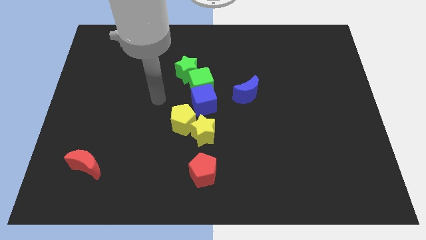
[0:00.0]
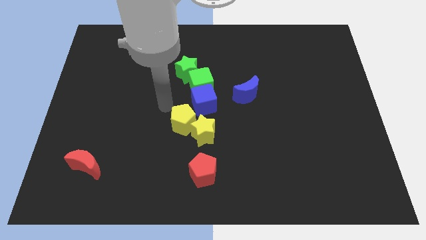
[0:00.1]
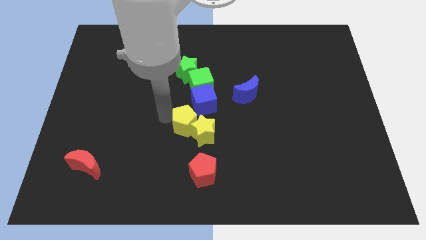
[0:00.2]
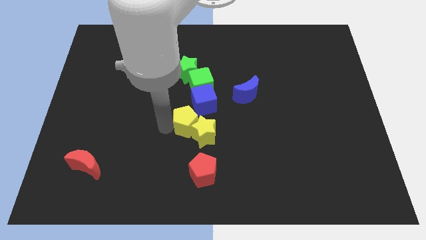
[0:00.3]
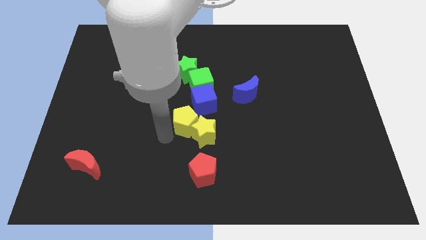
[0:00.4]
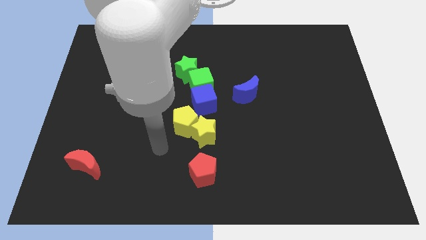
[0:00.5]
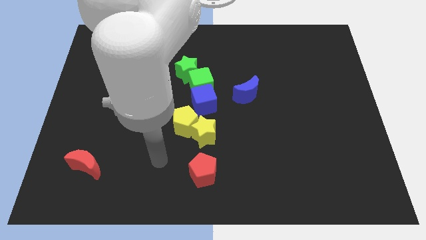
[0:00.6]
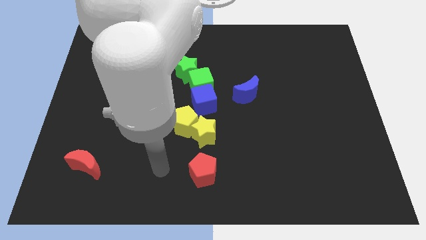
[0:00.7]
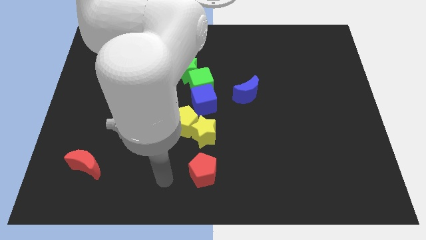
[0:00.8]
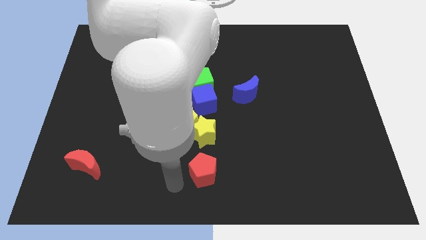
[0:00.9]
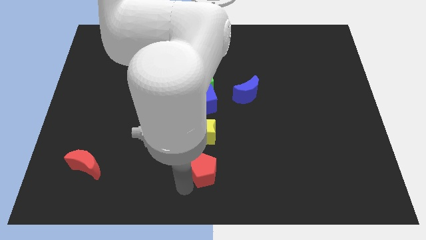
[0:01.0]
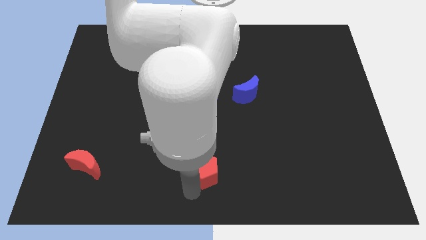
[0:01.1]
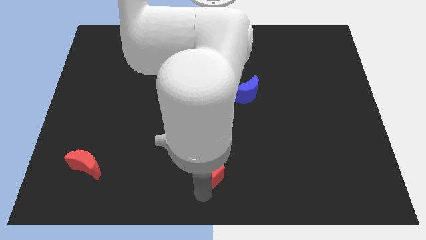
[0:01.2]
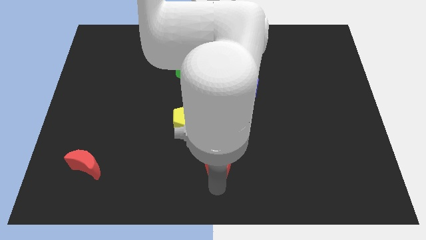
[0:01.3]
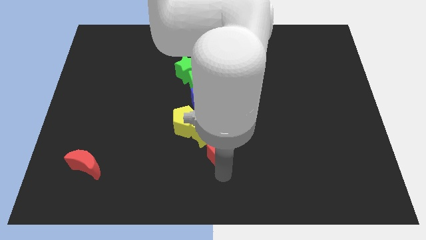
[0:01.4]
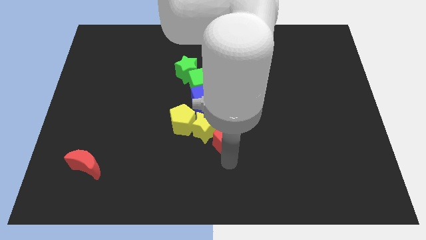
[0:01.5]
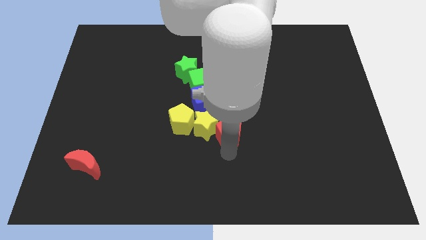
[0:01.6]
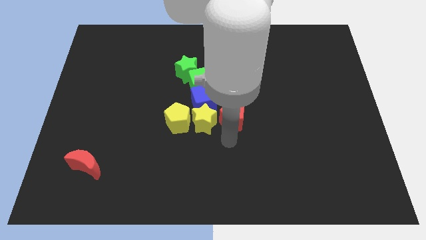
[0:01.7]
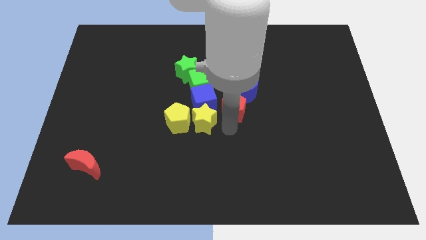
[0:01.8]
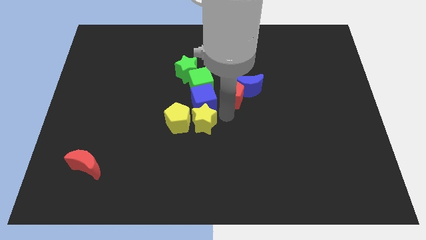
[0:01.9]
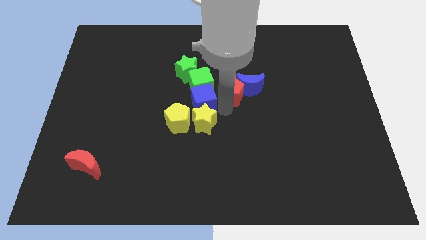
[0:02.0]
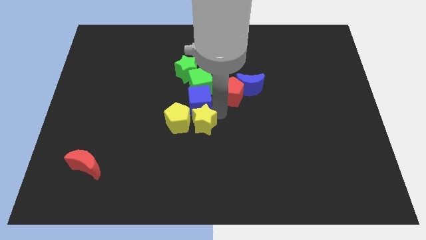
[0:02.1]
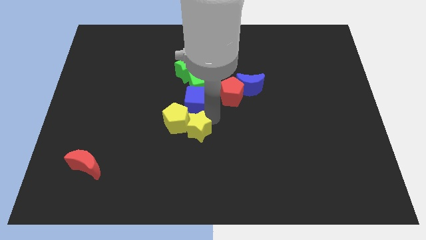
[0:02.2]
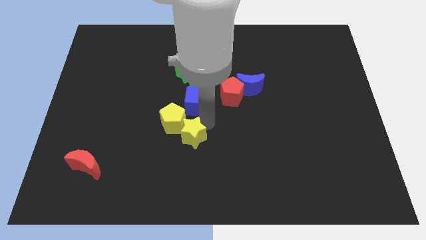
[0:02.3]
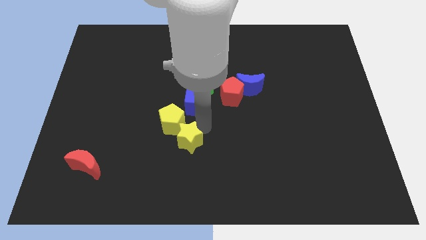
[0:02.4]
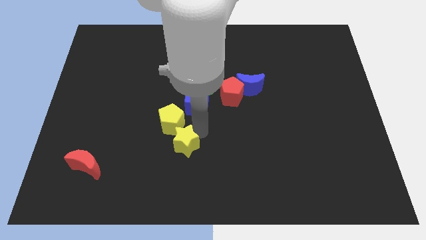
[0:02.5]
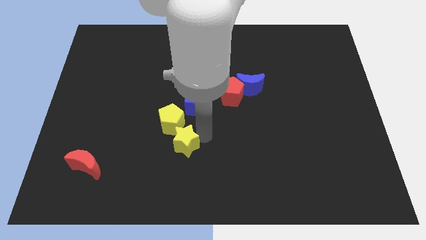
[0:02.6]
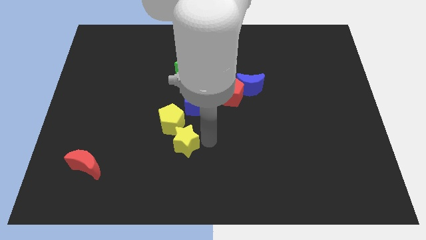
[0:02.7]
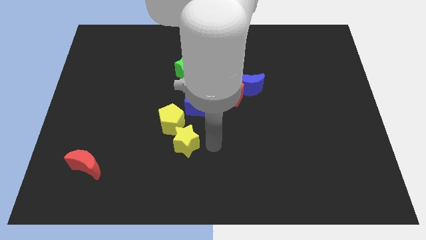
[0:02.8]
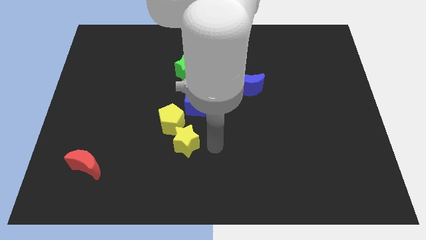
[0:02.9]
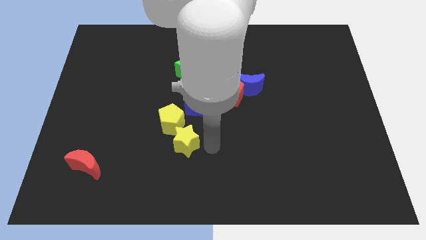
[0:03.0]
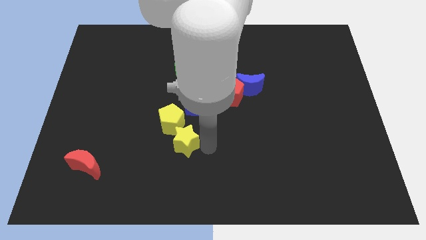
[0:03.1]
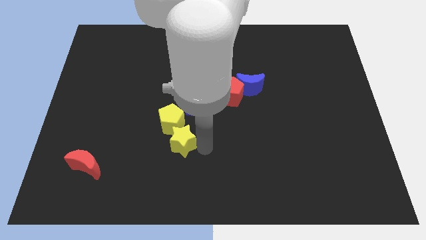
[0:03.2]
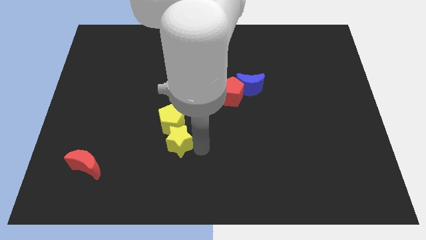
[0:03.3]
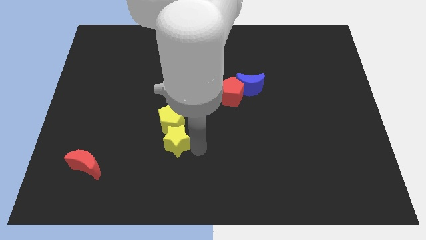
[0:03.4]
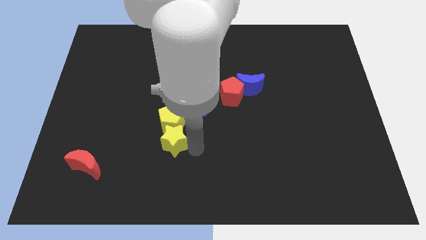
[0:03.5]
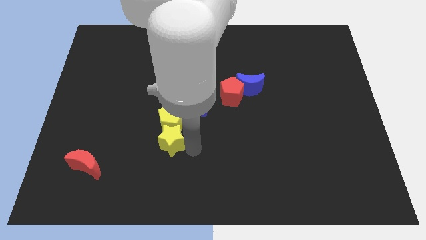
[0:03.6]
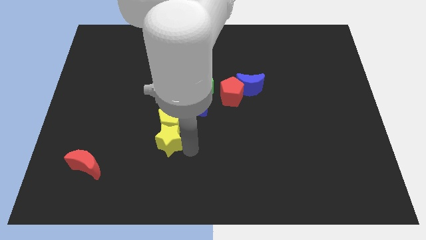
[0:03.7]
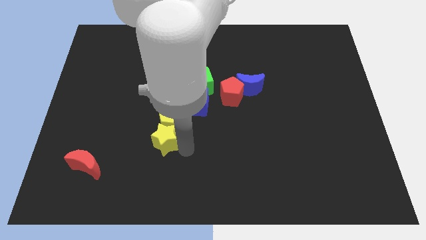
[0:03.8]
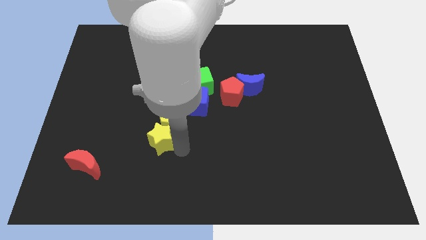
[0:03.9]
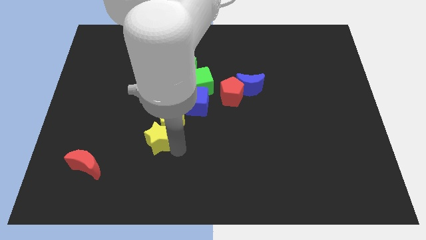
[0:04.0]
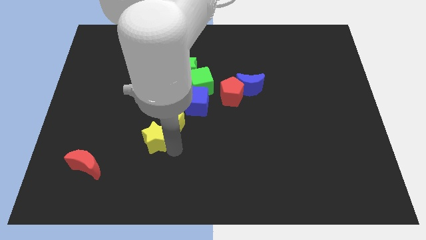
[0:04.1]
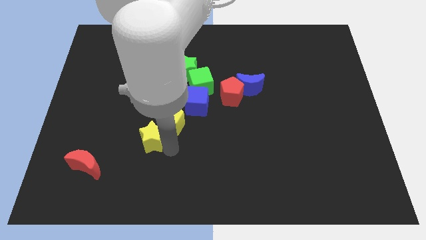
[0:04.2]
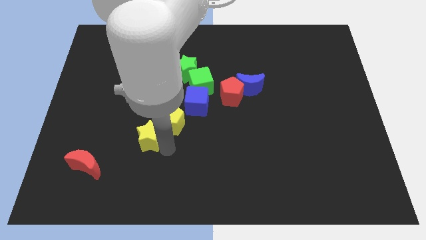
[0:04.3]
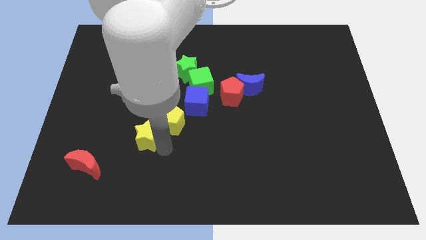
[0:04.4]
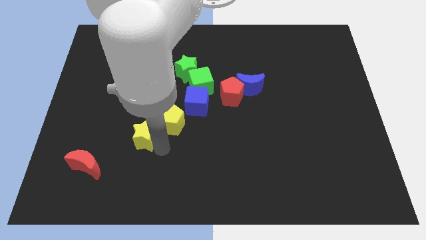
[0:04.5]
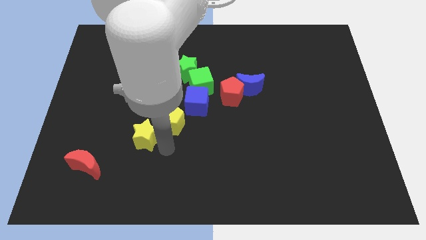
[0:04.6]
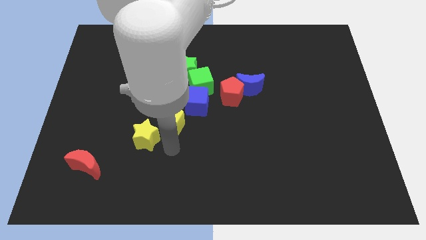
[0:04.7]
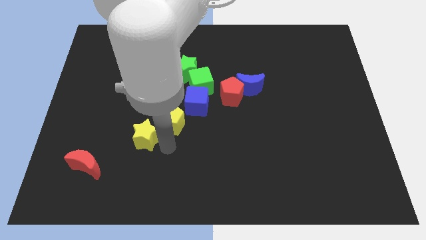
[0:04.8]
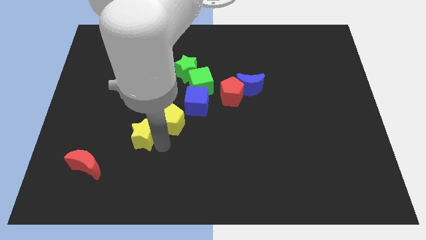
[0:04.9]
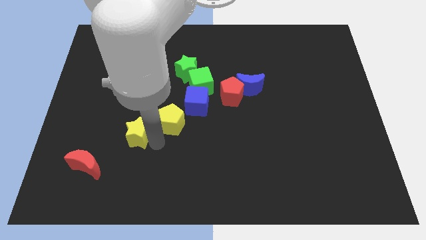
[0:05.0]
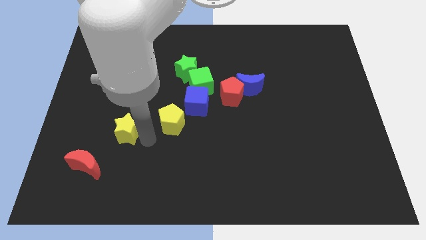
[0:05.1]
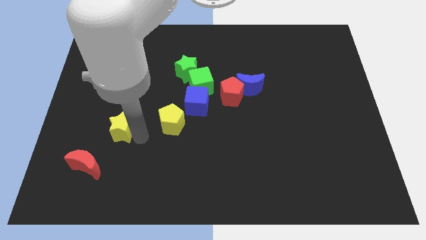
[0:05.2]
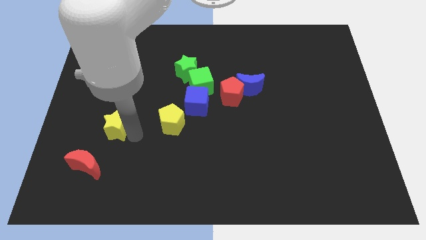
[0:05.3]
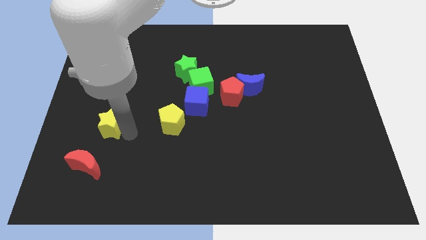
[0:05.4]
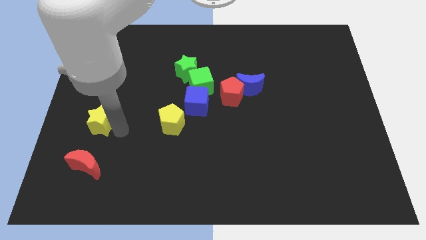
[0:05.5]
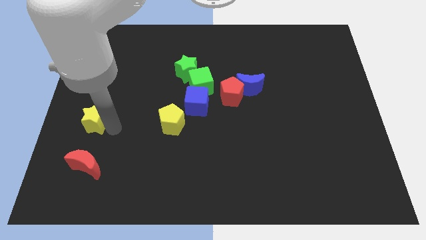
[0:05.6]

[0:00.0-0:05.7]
move the yellow star to the center left
